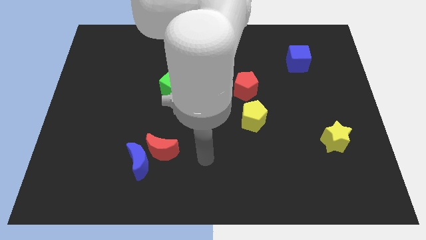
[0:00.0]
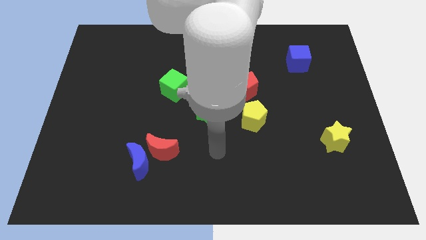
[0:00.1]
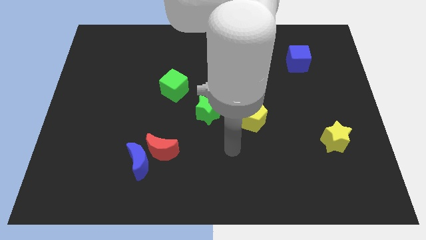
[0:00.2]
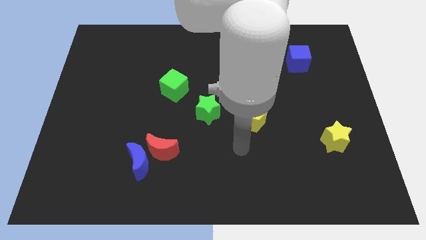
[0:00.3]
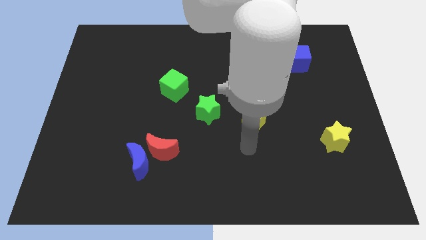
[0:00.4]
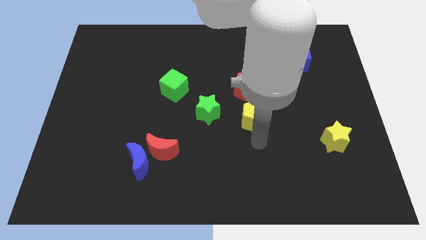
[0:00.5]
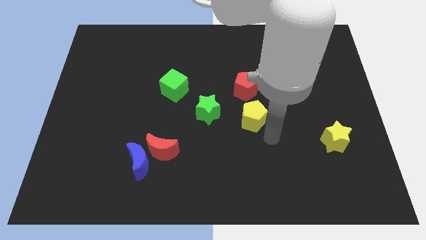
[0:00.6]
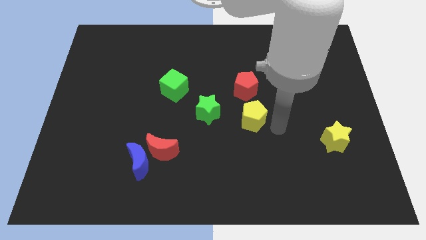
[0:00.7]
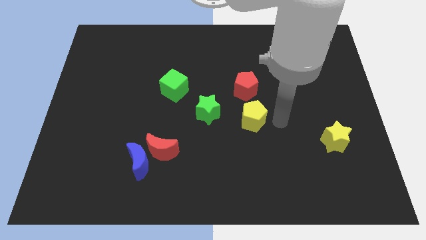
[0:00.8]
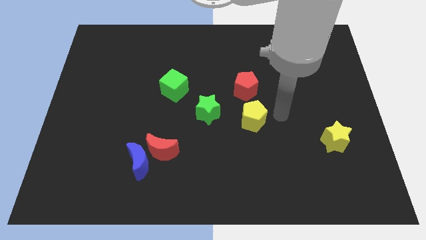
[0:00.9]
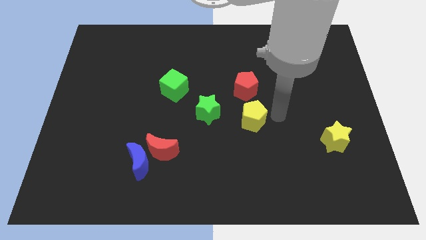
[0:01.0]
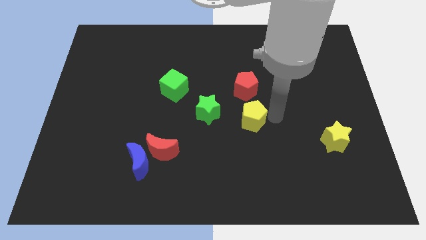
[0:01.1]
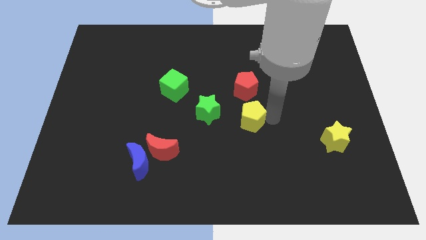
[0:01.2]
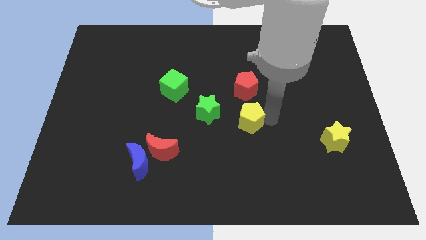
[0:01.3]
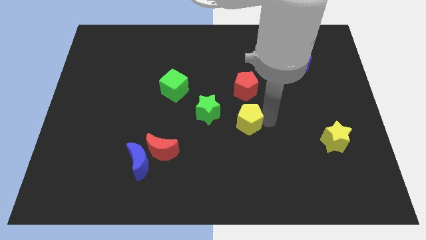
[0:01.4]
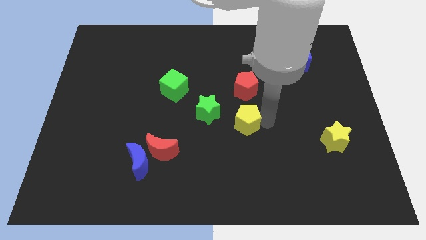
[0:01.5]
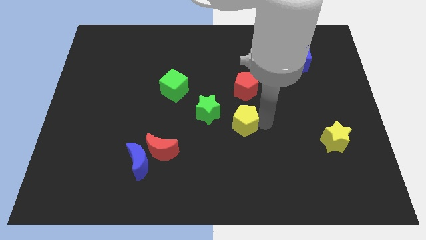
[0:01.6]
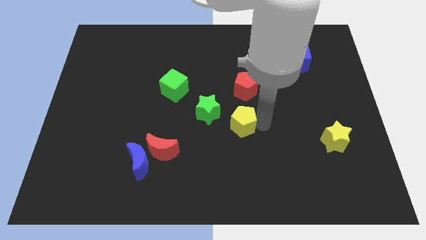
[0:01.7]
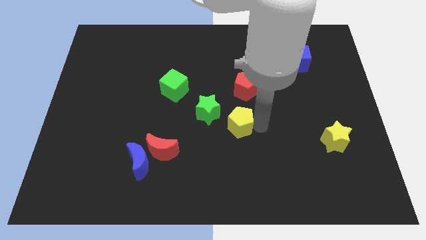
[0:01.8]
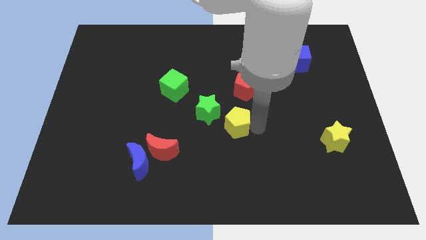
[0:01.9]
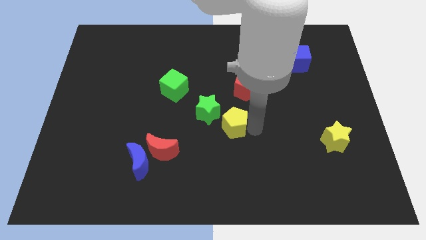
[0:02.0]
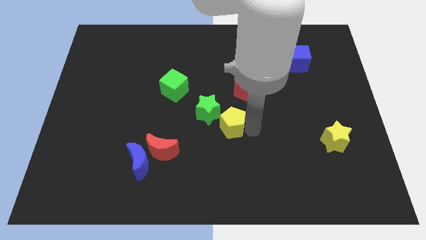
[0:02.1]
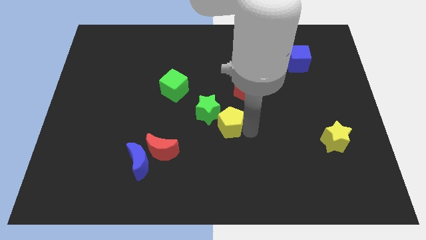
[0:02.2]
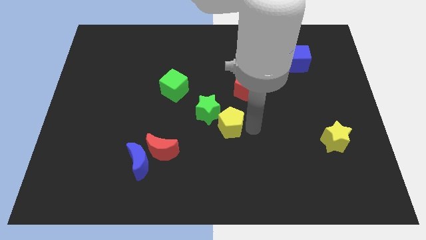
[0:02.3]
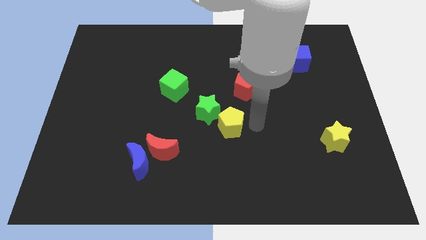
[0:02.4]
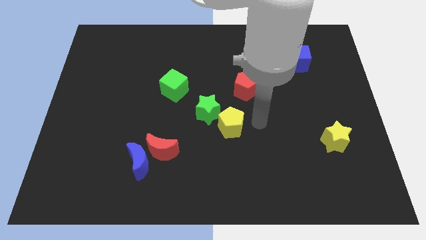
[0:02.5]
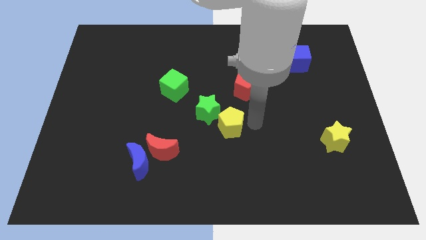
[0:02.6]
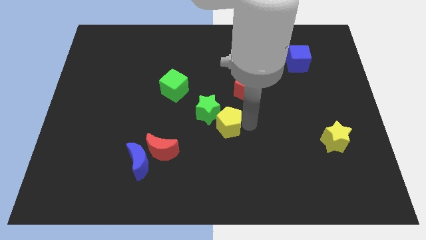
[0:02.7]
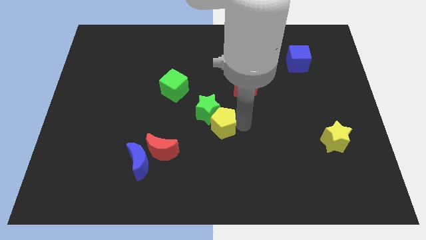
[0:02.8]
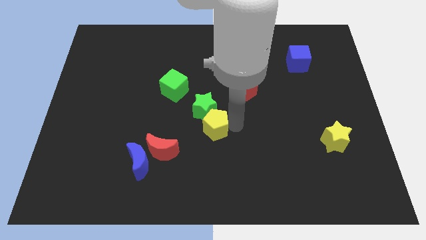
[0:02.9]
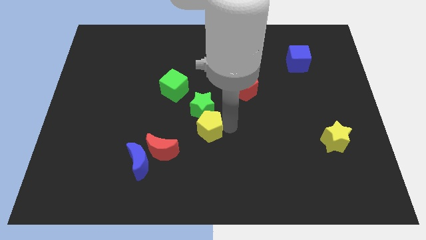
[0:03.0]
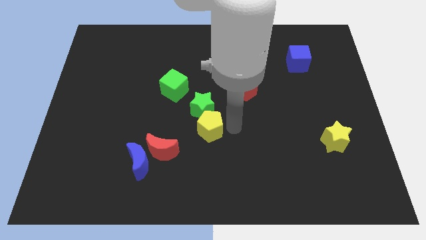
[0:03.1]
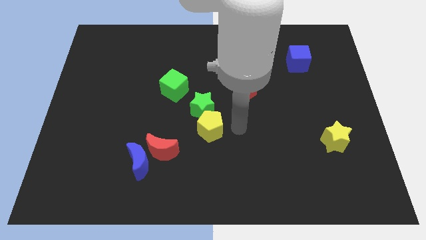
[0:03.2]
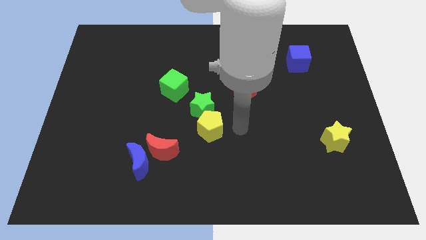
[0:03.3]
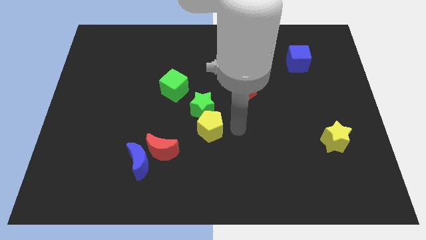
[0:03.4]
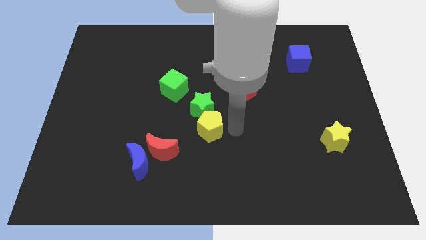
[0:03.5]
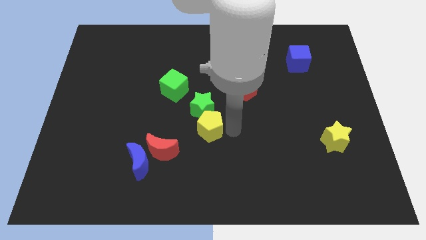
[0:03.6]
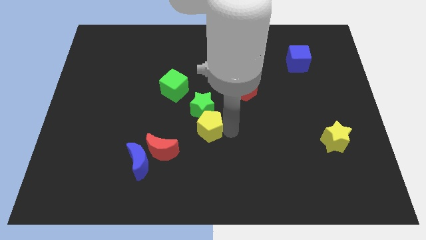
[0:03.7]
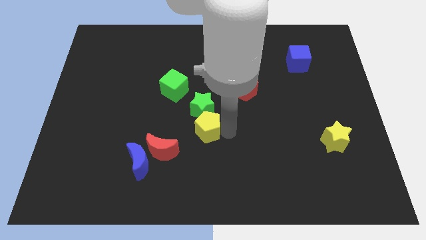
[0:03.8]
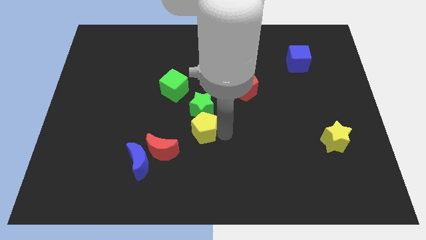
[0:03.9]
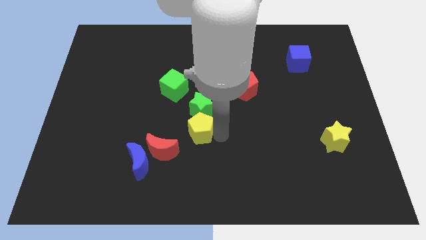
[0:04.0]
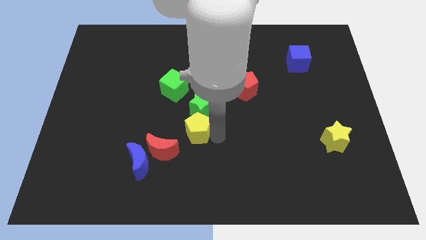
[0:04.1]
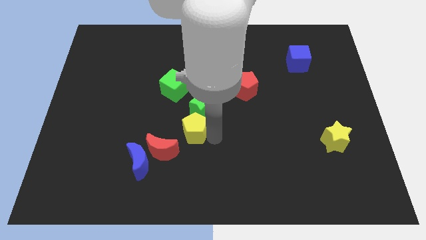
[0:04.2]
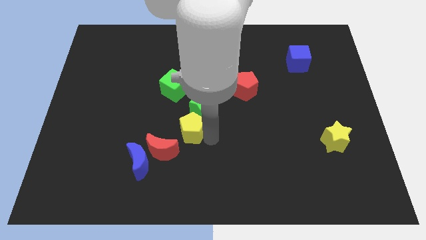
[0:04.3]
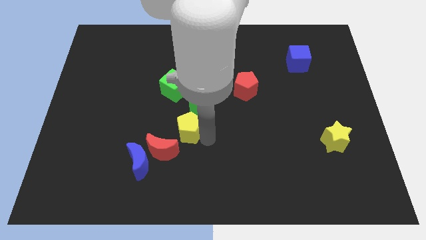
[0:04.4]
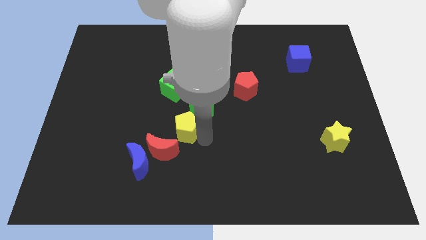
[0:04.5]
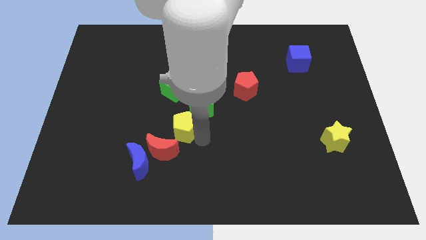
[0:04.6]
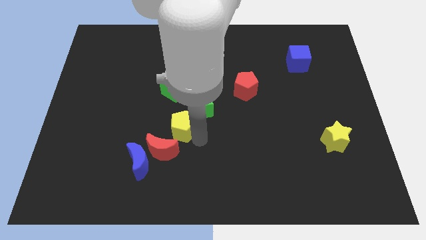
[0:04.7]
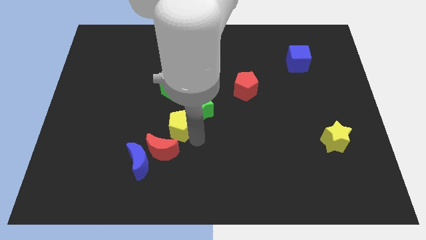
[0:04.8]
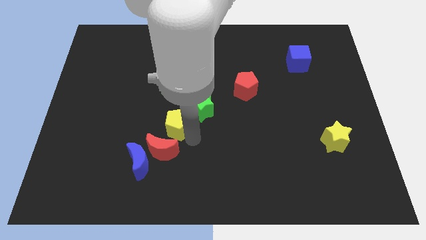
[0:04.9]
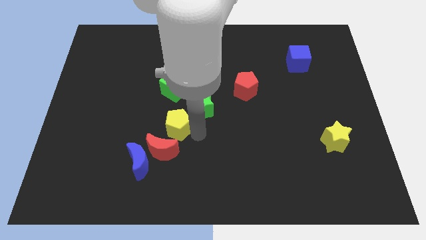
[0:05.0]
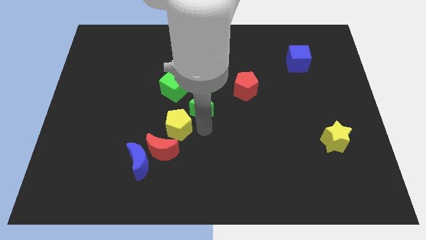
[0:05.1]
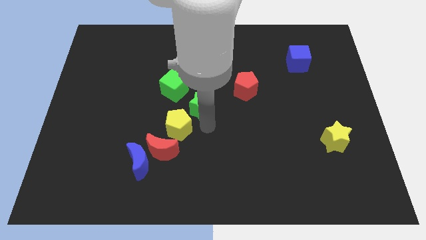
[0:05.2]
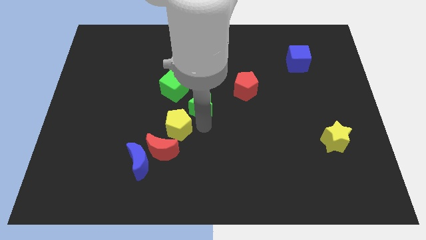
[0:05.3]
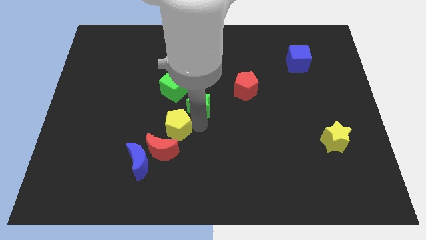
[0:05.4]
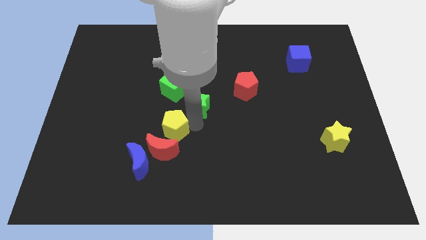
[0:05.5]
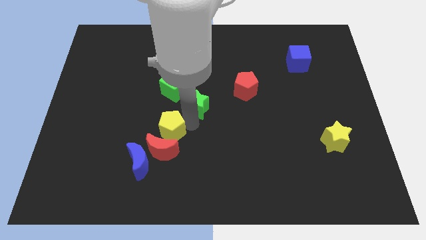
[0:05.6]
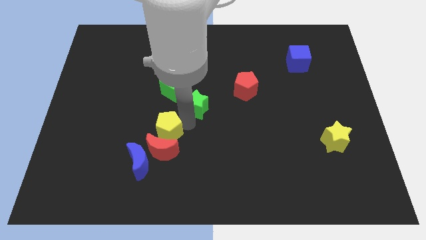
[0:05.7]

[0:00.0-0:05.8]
put the yellow pentagon to the top left of the red moon

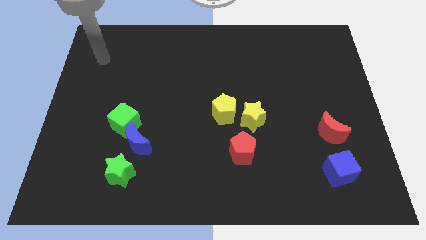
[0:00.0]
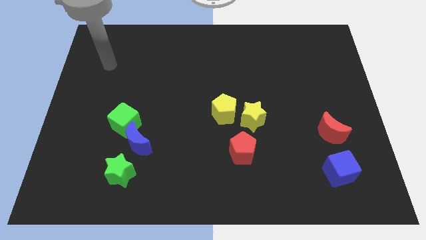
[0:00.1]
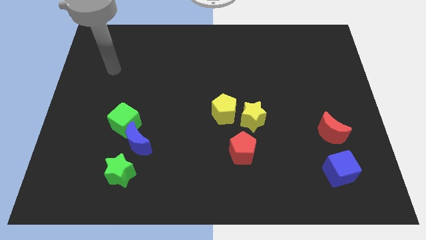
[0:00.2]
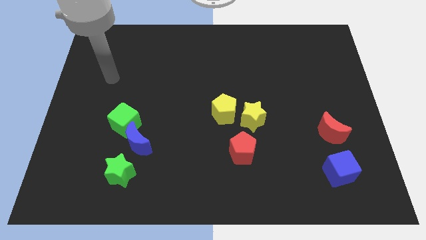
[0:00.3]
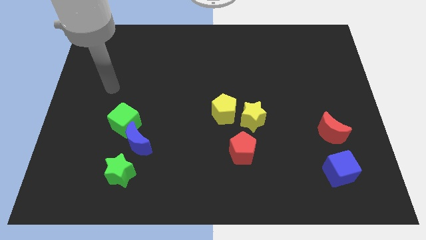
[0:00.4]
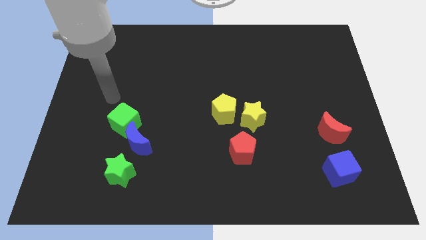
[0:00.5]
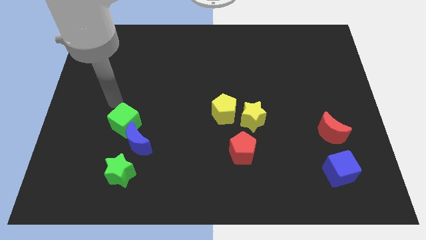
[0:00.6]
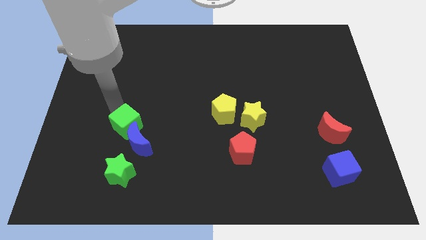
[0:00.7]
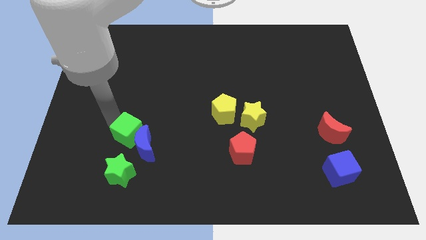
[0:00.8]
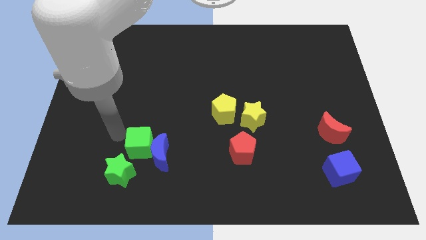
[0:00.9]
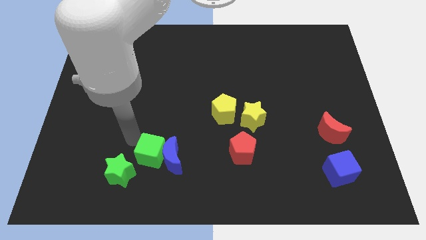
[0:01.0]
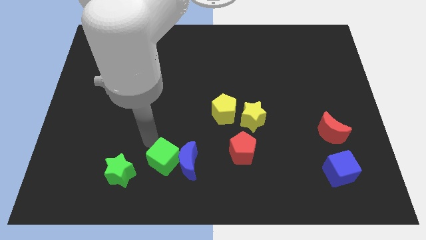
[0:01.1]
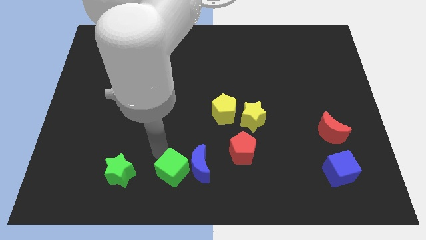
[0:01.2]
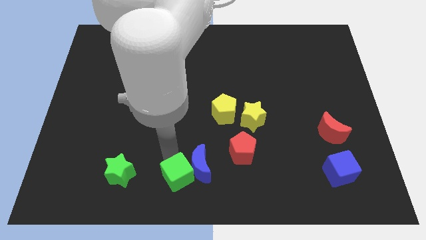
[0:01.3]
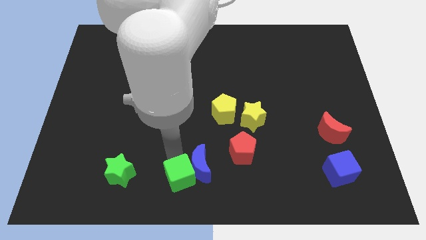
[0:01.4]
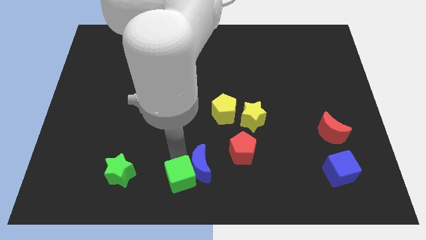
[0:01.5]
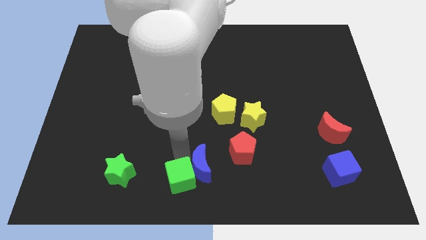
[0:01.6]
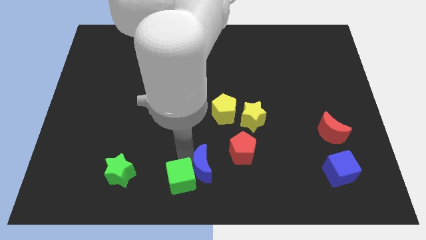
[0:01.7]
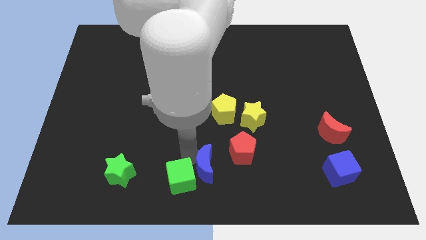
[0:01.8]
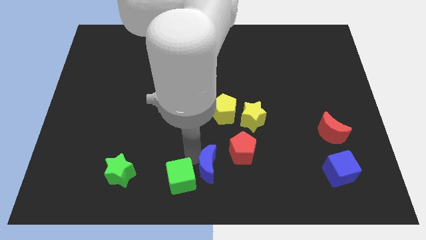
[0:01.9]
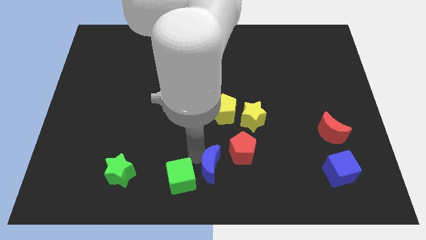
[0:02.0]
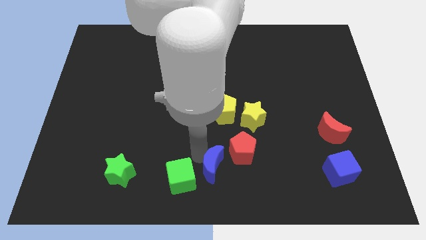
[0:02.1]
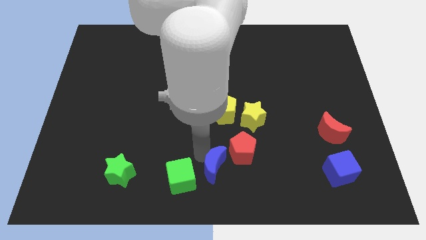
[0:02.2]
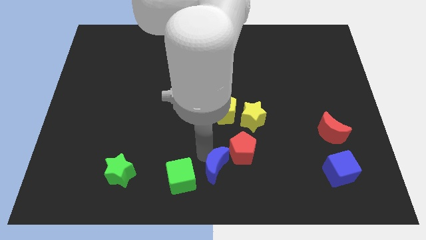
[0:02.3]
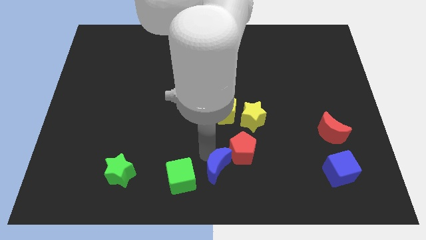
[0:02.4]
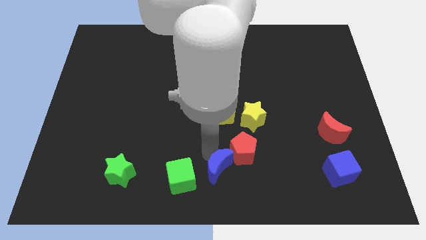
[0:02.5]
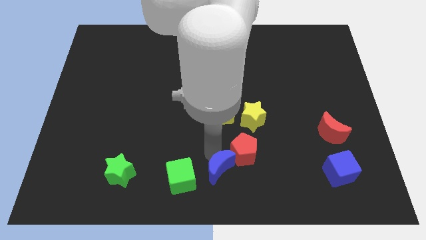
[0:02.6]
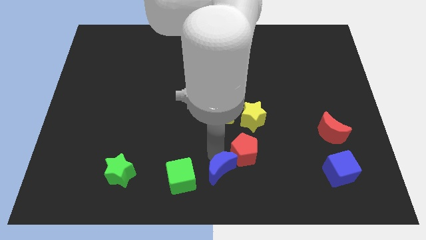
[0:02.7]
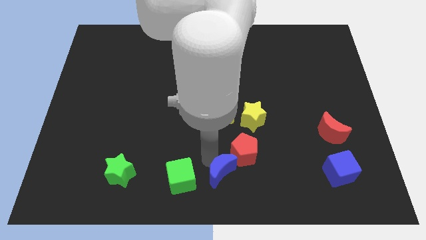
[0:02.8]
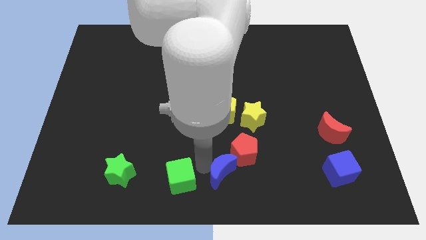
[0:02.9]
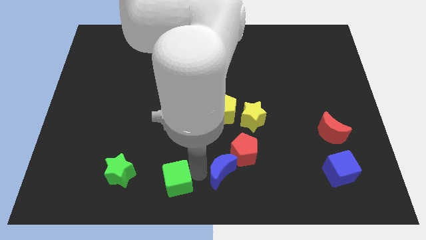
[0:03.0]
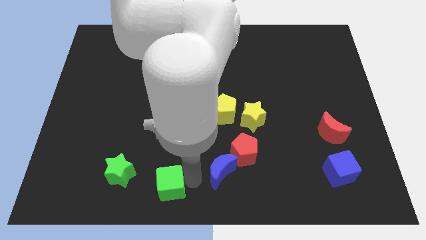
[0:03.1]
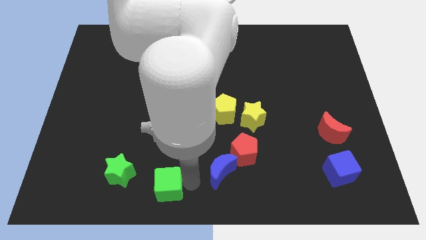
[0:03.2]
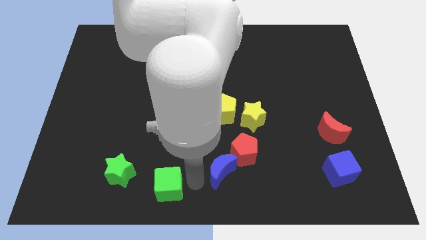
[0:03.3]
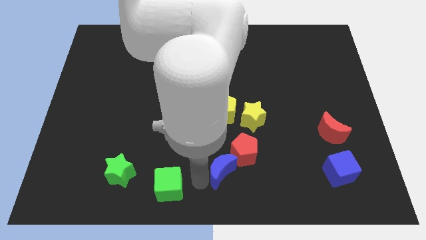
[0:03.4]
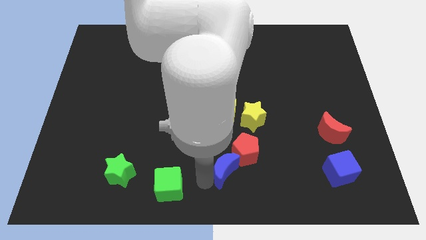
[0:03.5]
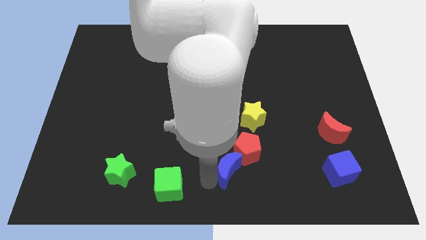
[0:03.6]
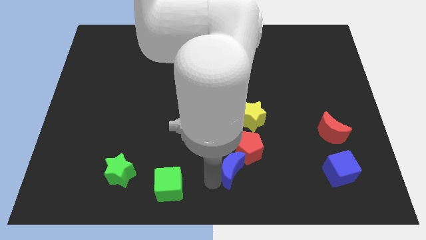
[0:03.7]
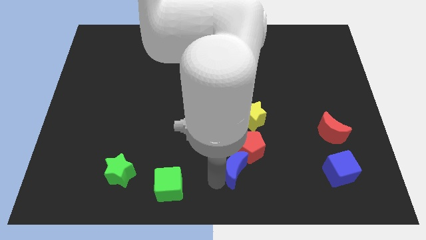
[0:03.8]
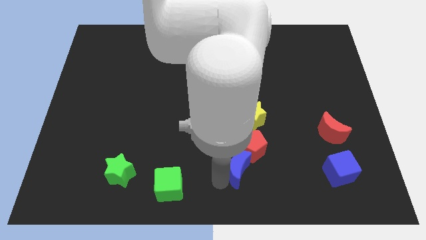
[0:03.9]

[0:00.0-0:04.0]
put the blue moon to the bottom side of the yellow star
